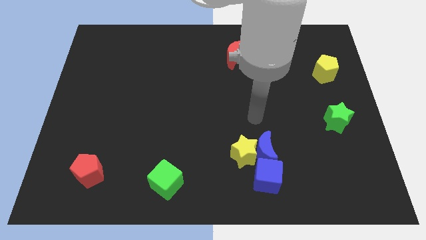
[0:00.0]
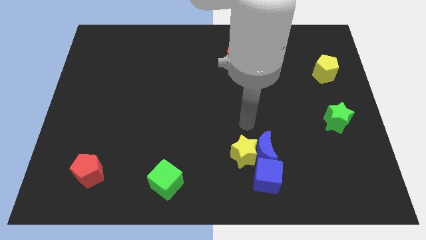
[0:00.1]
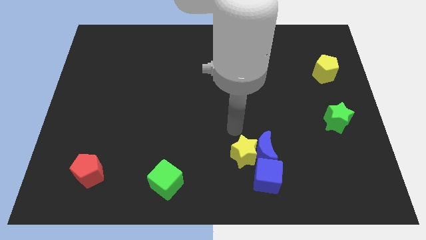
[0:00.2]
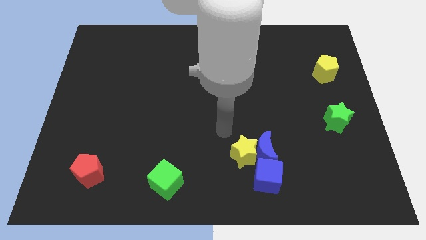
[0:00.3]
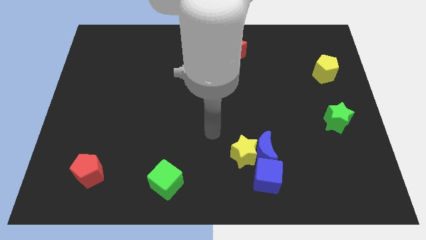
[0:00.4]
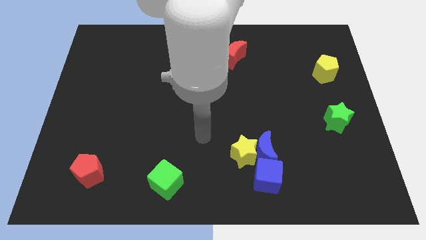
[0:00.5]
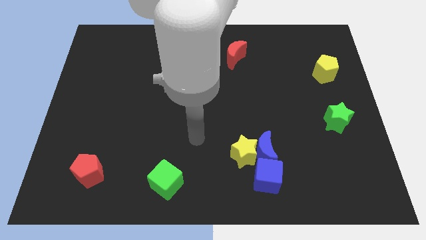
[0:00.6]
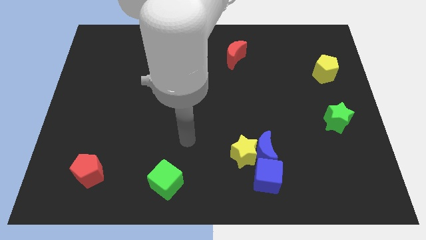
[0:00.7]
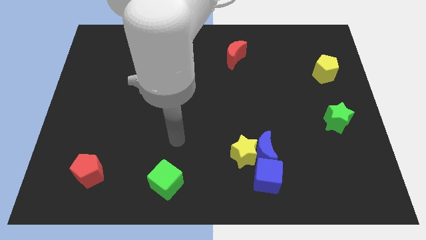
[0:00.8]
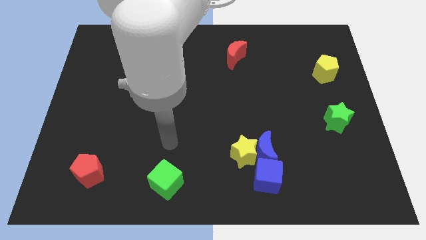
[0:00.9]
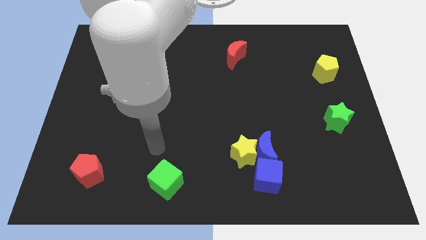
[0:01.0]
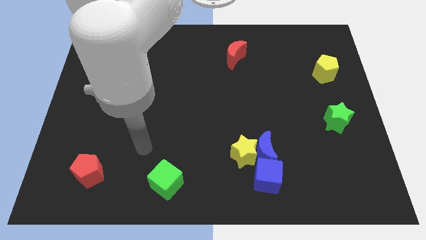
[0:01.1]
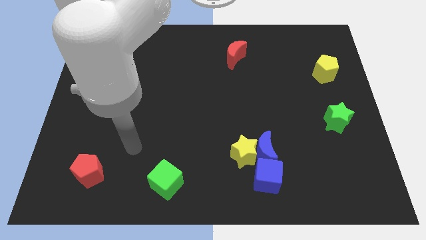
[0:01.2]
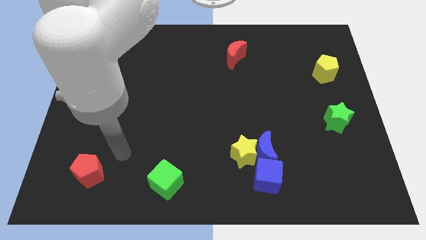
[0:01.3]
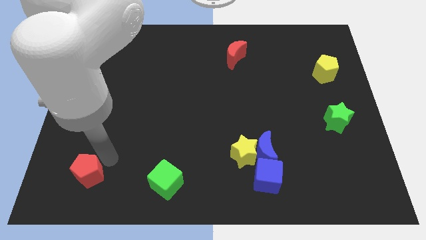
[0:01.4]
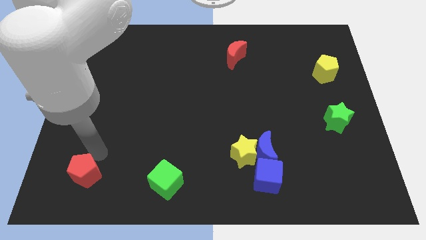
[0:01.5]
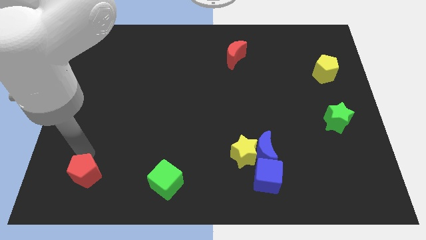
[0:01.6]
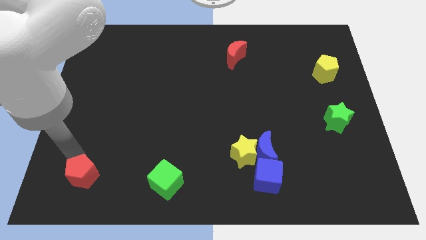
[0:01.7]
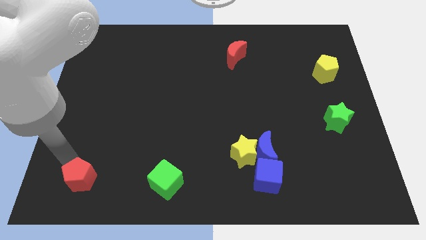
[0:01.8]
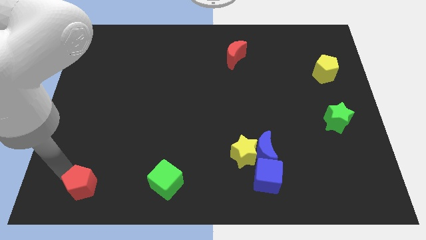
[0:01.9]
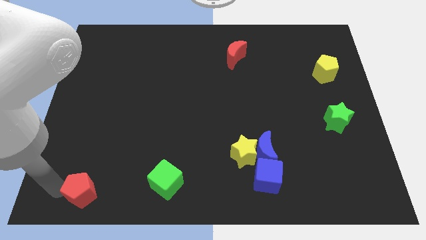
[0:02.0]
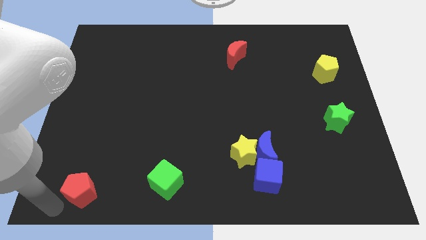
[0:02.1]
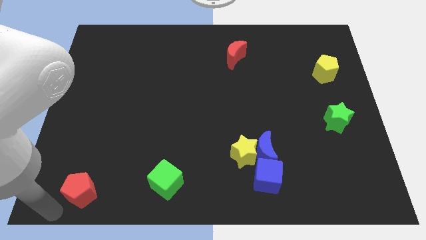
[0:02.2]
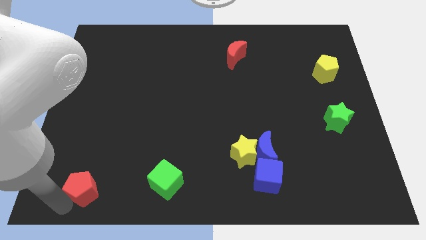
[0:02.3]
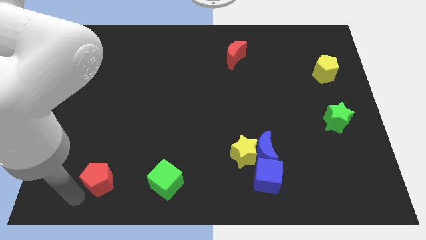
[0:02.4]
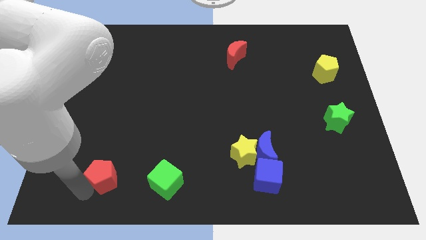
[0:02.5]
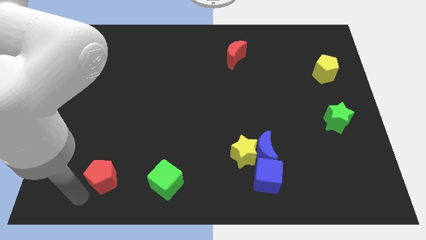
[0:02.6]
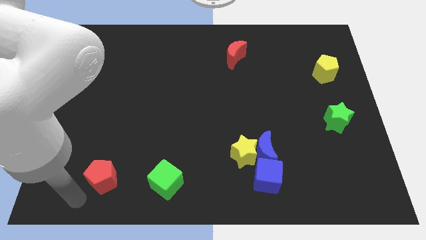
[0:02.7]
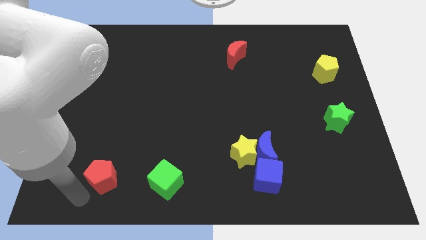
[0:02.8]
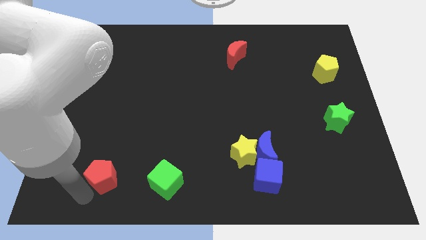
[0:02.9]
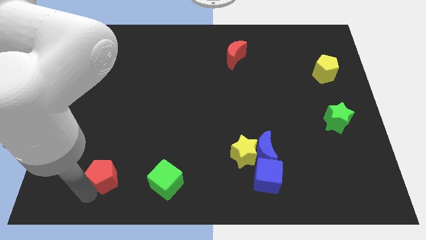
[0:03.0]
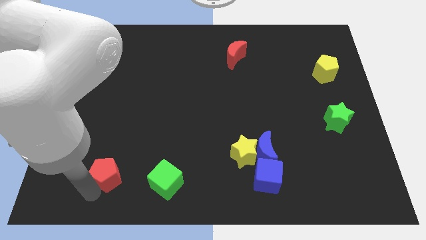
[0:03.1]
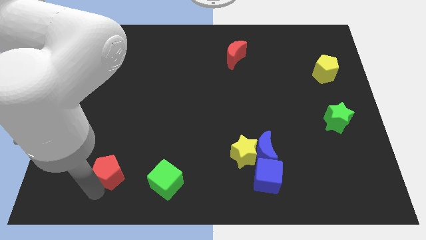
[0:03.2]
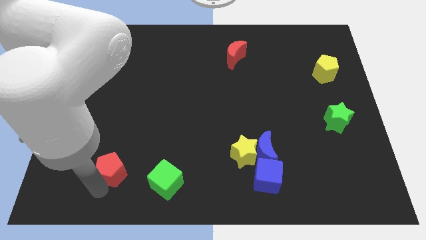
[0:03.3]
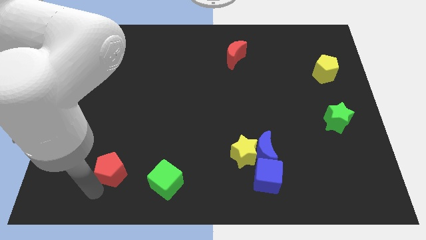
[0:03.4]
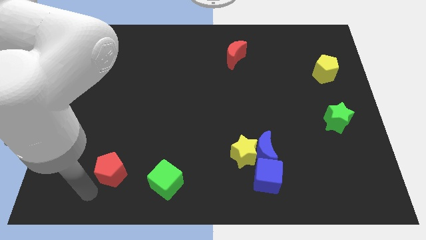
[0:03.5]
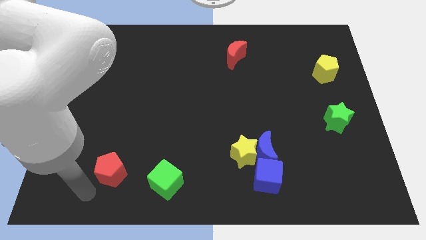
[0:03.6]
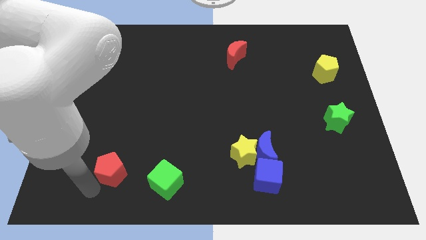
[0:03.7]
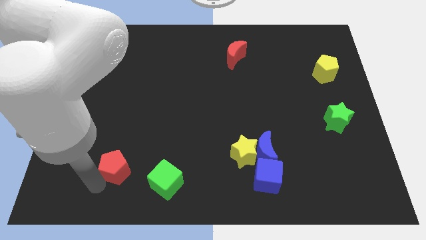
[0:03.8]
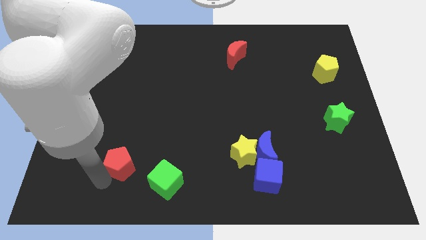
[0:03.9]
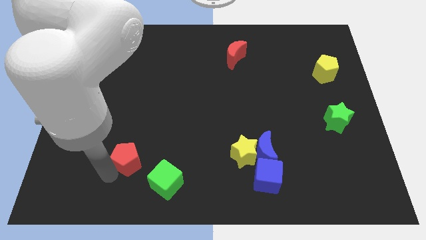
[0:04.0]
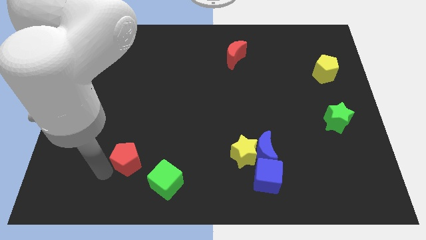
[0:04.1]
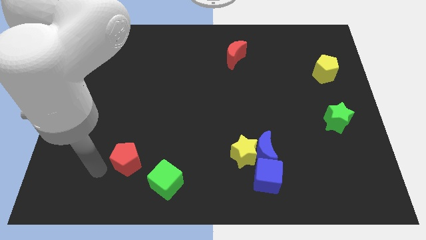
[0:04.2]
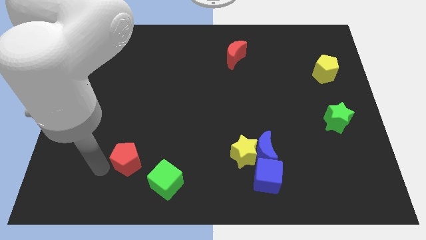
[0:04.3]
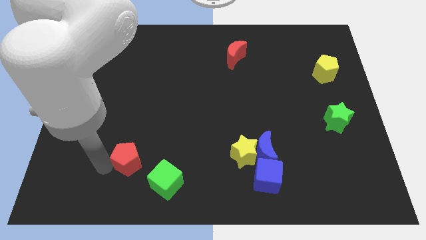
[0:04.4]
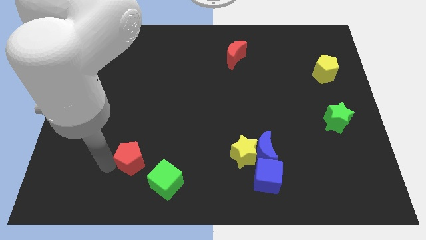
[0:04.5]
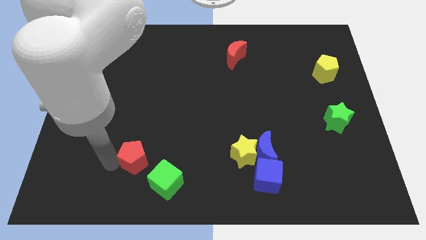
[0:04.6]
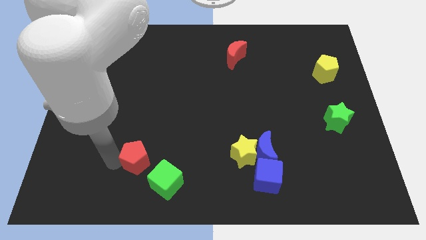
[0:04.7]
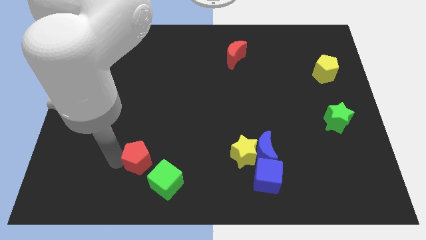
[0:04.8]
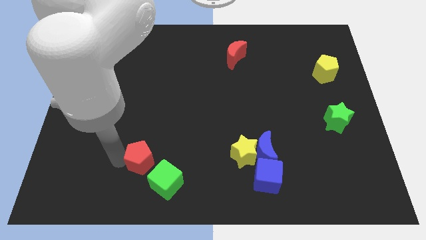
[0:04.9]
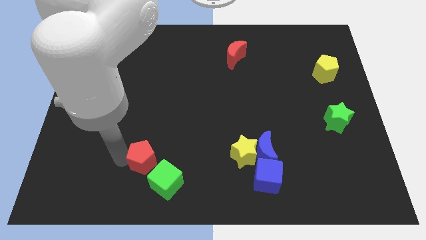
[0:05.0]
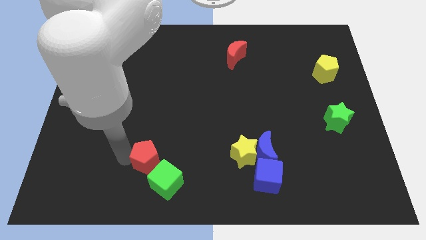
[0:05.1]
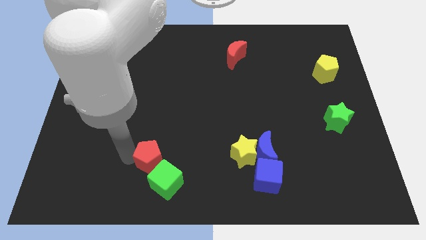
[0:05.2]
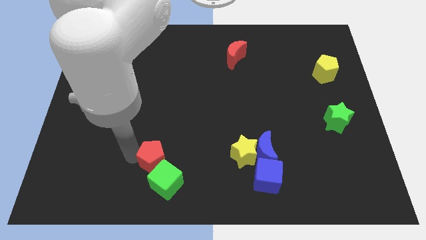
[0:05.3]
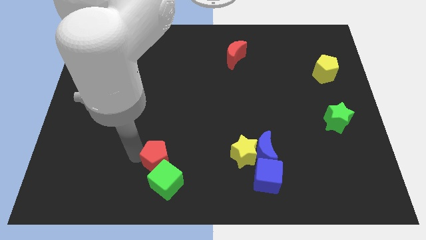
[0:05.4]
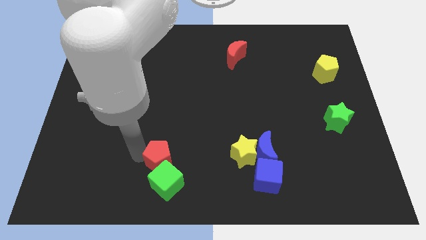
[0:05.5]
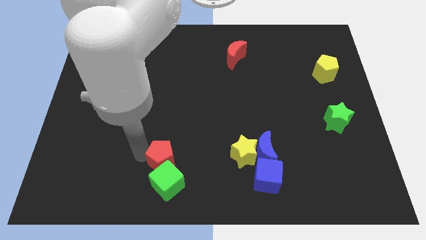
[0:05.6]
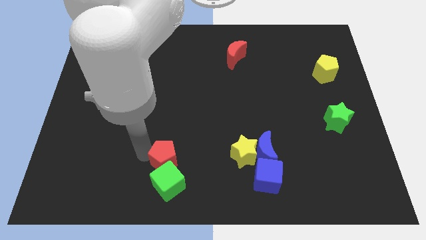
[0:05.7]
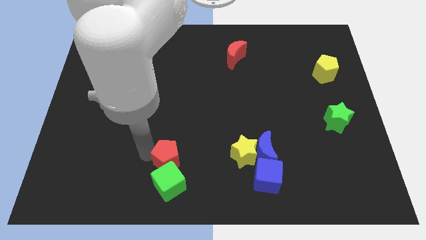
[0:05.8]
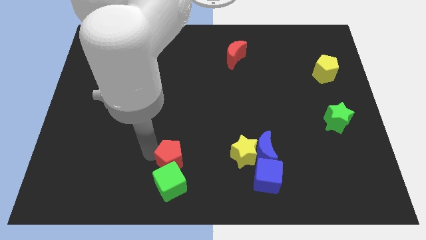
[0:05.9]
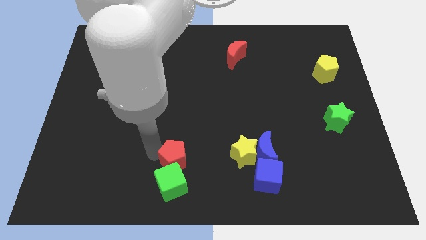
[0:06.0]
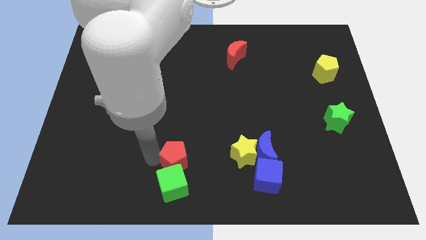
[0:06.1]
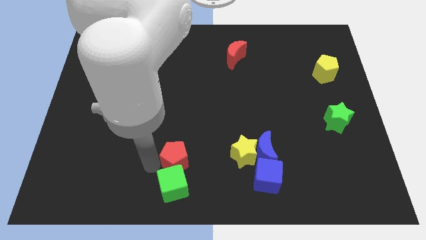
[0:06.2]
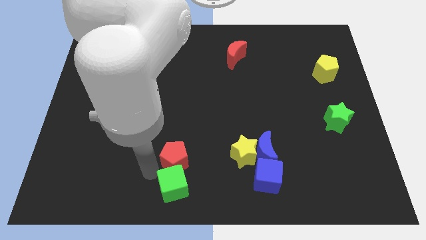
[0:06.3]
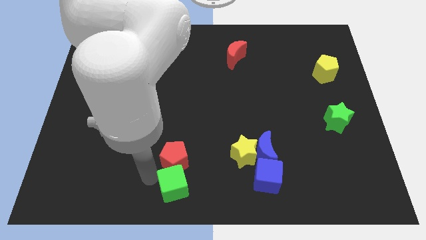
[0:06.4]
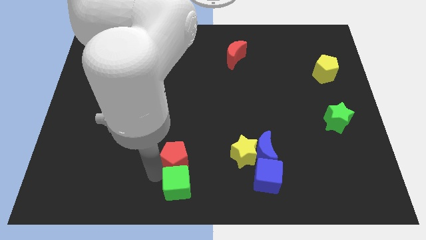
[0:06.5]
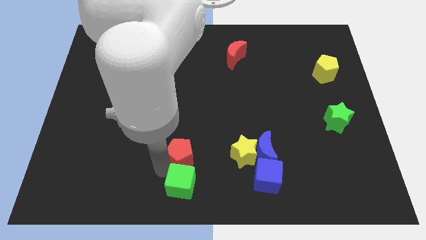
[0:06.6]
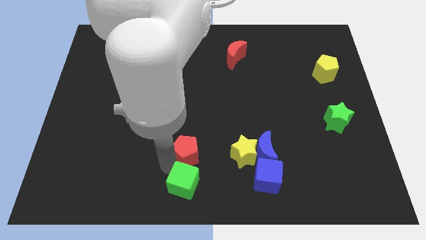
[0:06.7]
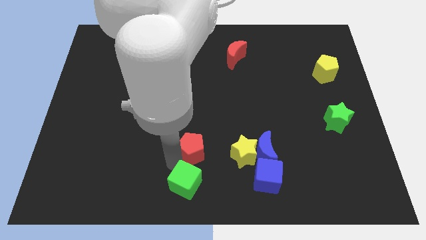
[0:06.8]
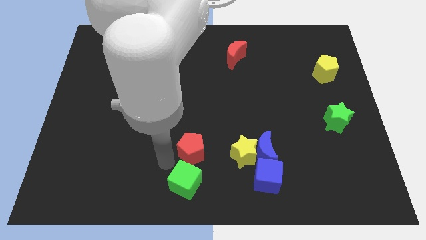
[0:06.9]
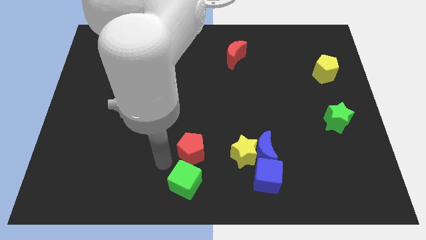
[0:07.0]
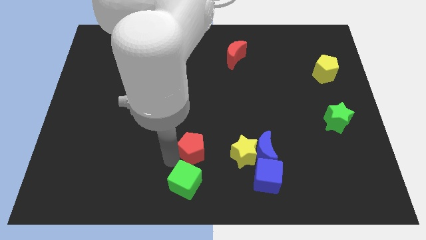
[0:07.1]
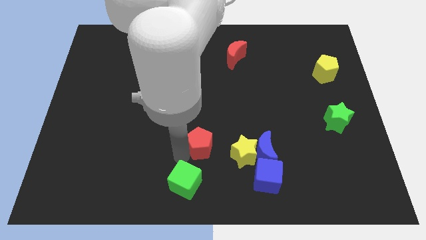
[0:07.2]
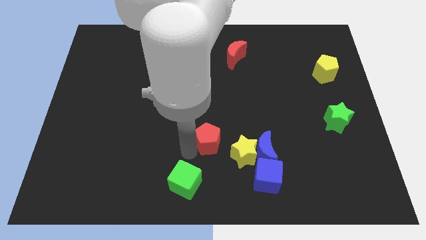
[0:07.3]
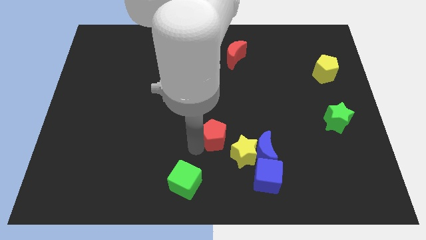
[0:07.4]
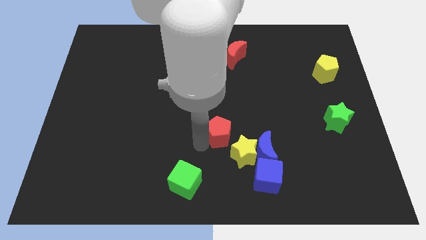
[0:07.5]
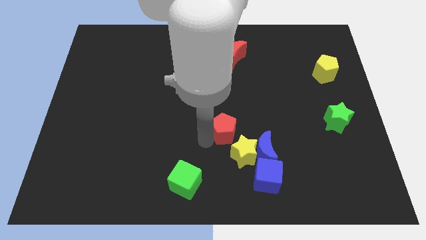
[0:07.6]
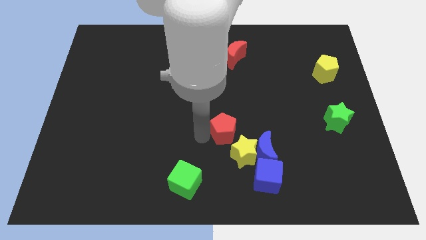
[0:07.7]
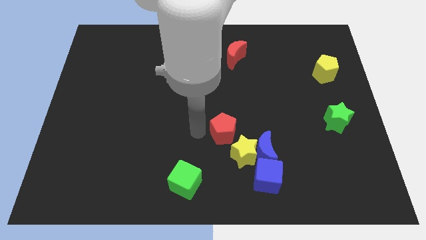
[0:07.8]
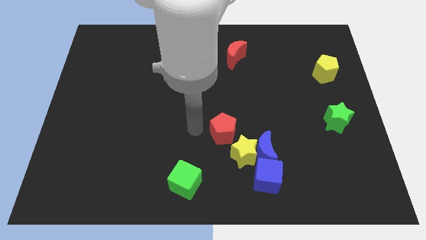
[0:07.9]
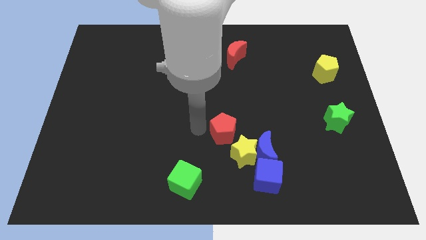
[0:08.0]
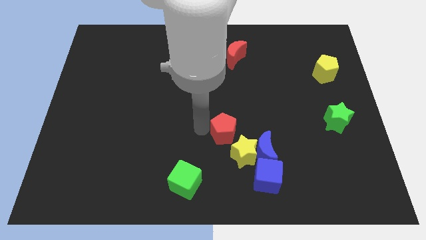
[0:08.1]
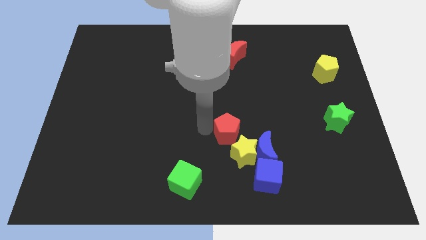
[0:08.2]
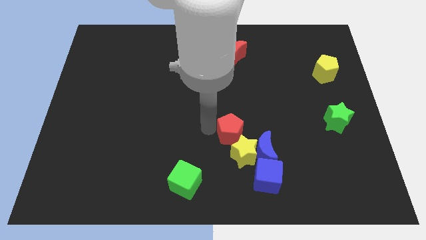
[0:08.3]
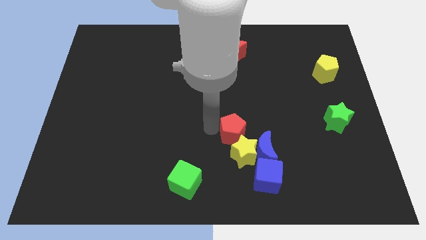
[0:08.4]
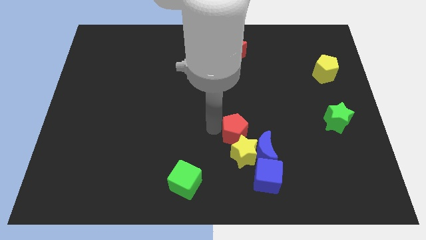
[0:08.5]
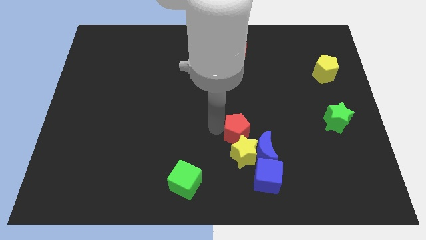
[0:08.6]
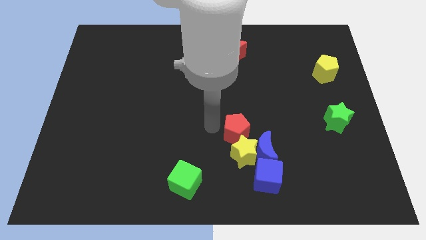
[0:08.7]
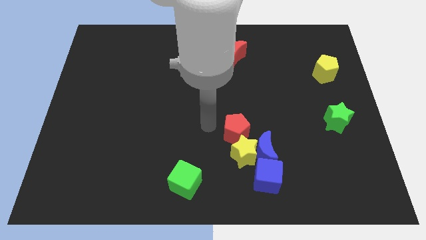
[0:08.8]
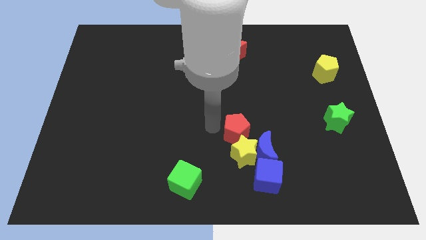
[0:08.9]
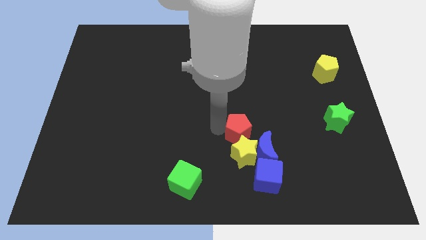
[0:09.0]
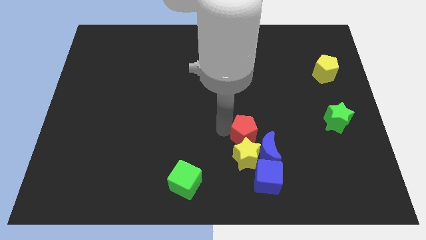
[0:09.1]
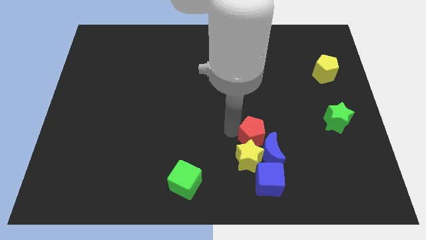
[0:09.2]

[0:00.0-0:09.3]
push the red pentagon towards the blue moon
